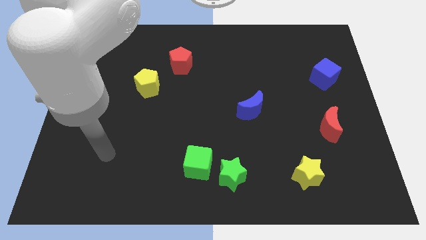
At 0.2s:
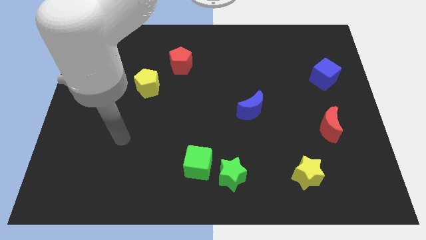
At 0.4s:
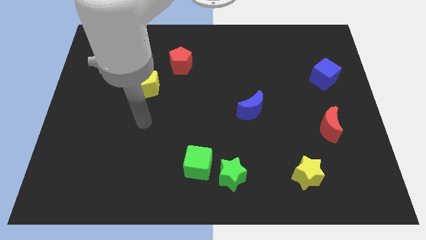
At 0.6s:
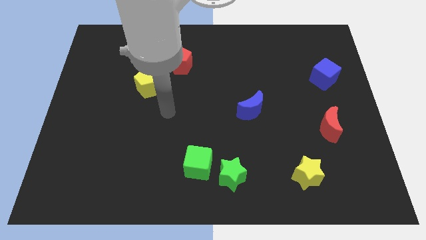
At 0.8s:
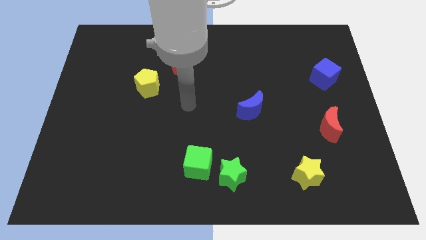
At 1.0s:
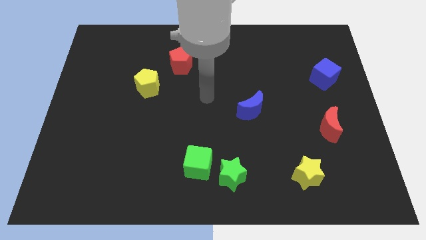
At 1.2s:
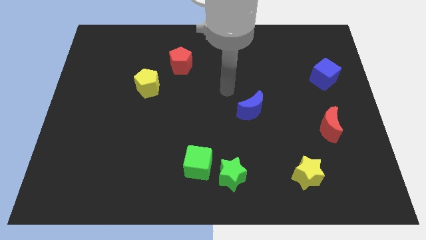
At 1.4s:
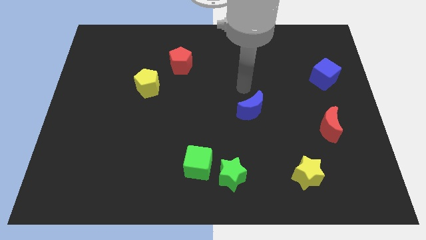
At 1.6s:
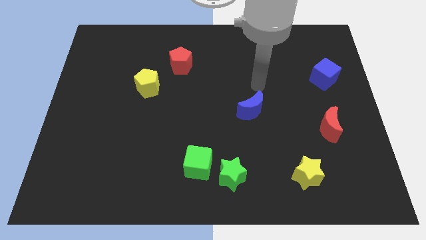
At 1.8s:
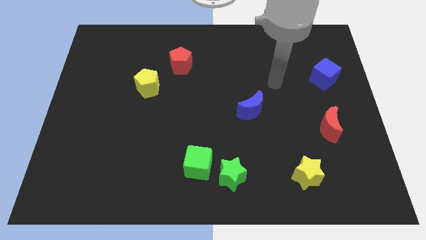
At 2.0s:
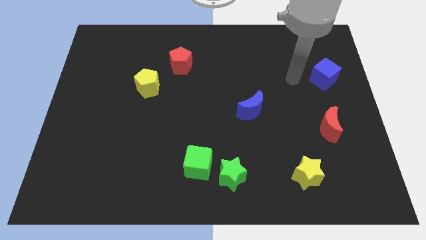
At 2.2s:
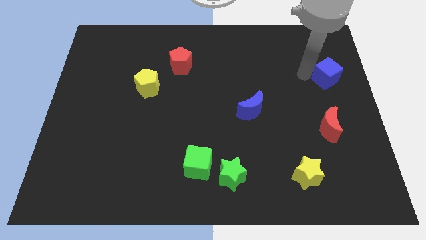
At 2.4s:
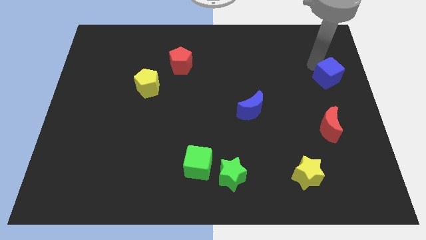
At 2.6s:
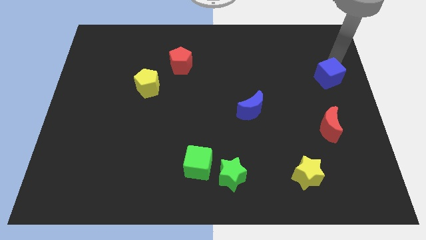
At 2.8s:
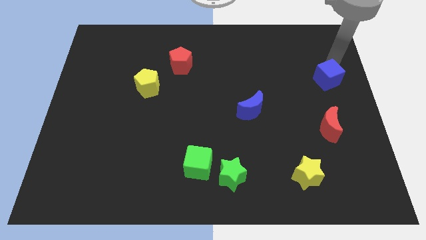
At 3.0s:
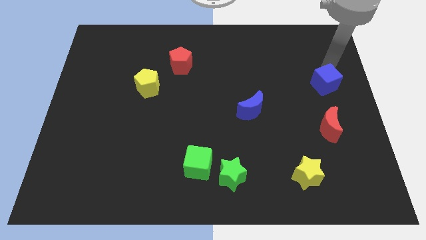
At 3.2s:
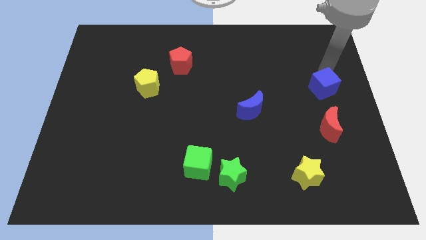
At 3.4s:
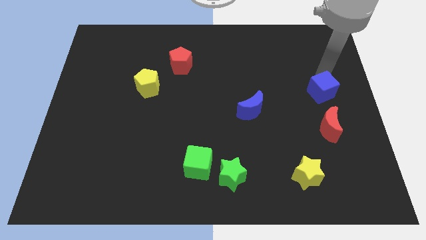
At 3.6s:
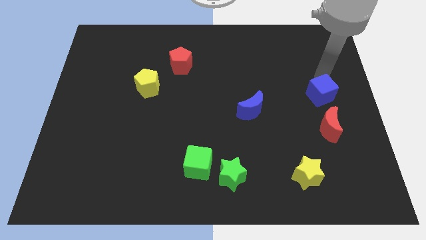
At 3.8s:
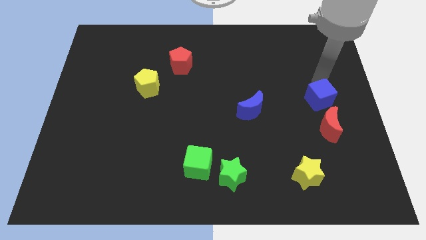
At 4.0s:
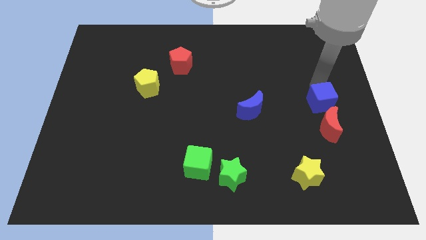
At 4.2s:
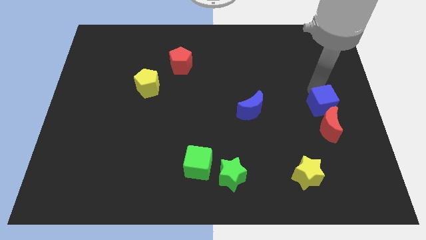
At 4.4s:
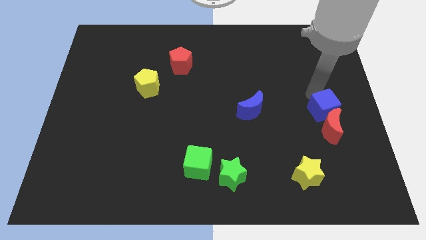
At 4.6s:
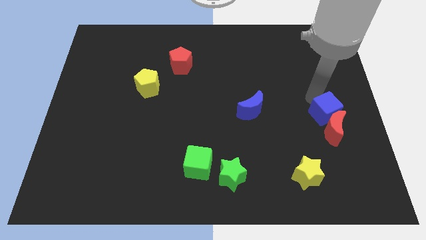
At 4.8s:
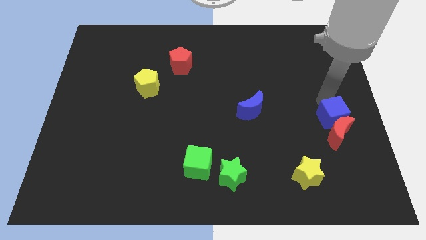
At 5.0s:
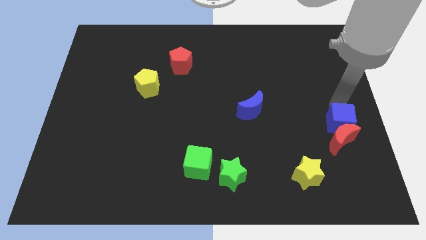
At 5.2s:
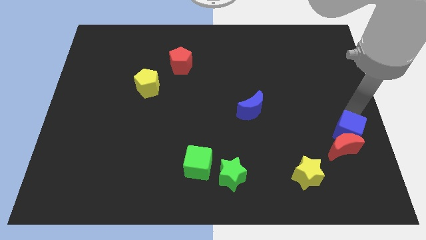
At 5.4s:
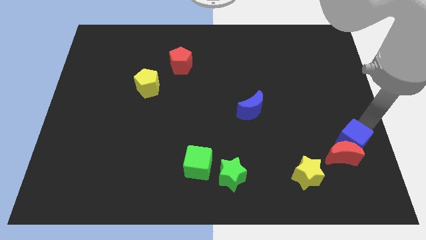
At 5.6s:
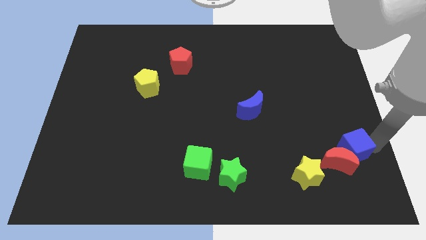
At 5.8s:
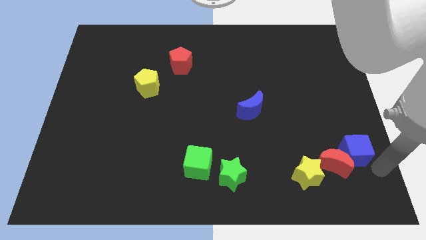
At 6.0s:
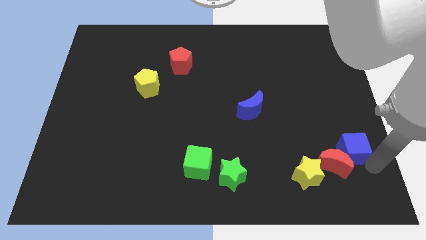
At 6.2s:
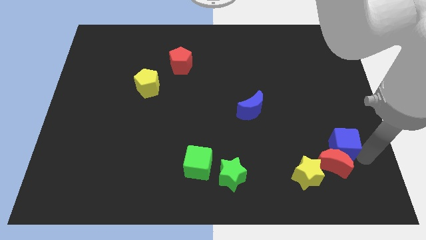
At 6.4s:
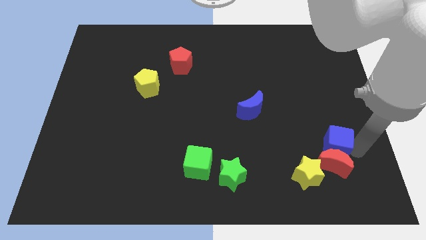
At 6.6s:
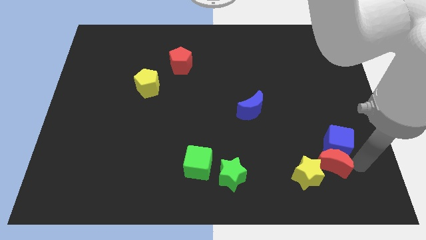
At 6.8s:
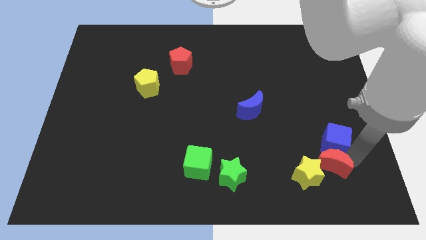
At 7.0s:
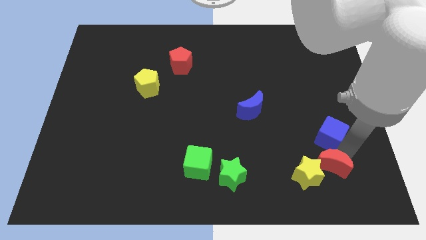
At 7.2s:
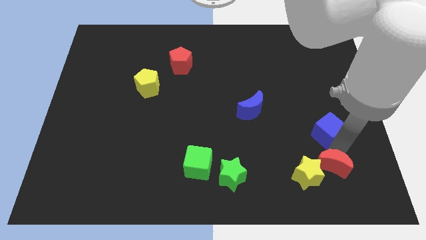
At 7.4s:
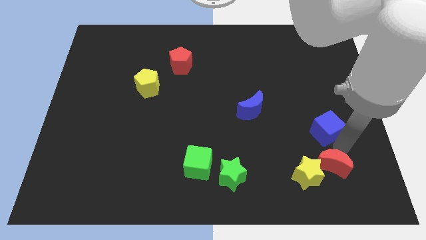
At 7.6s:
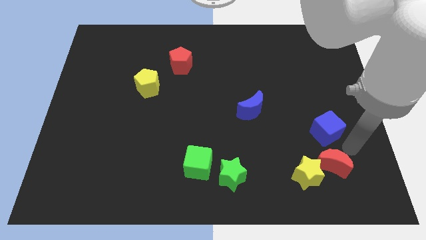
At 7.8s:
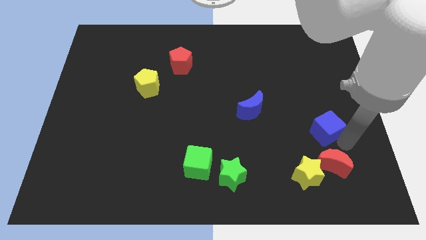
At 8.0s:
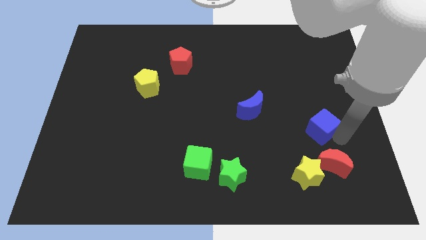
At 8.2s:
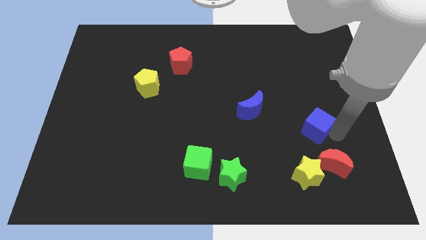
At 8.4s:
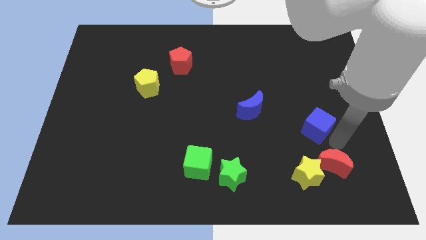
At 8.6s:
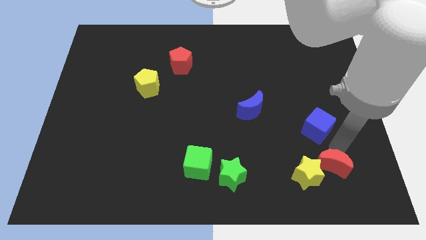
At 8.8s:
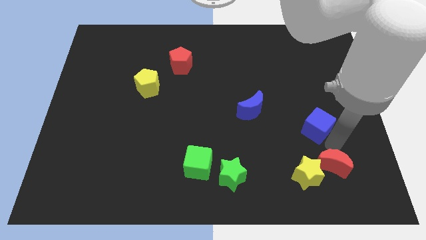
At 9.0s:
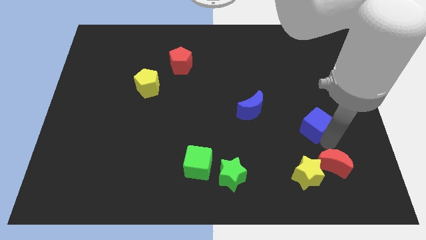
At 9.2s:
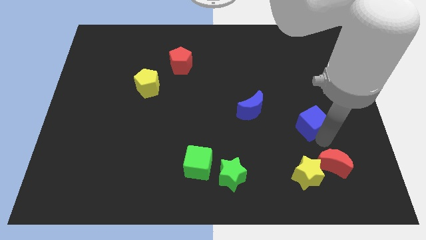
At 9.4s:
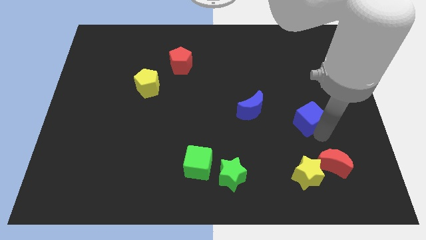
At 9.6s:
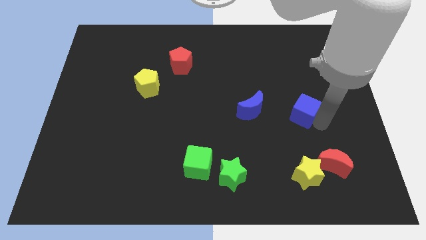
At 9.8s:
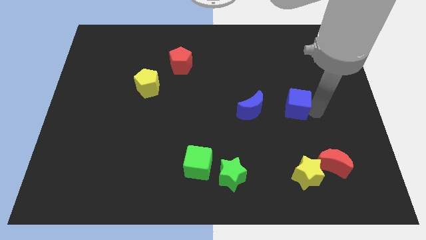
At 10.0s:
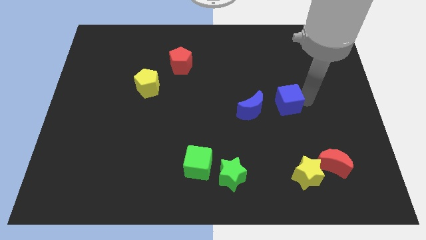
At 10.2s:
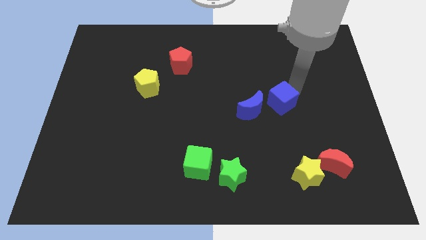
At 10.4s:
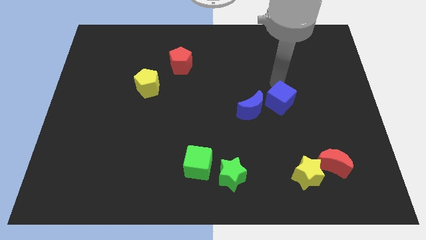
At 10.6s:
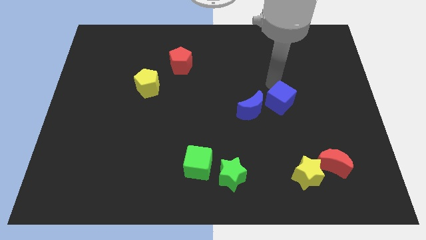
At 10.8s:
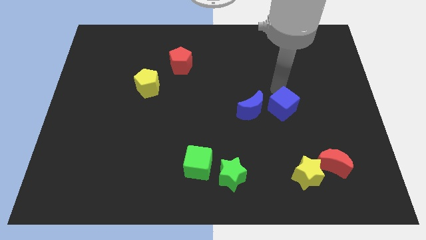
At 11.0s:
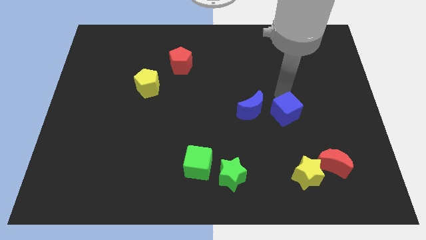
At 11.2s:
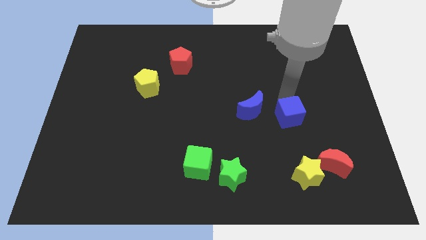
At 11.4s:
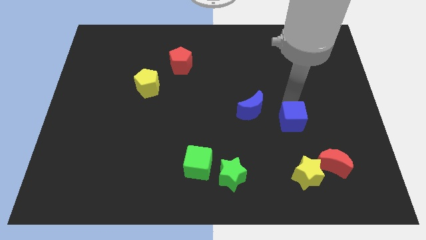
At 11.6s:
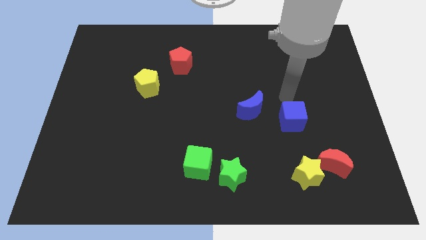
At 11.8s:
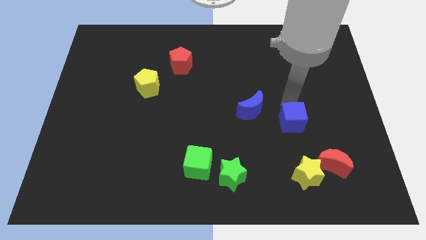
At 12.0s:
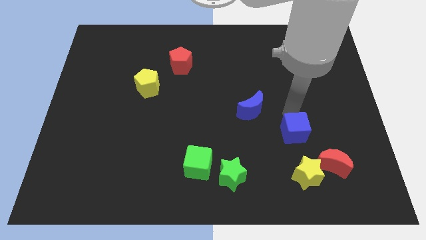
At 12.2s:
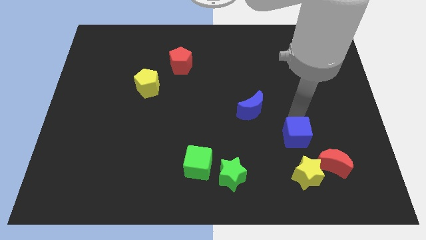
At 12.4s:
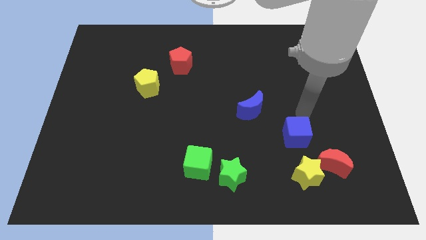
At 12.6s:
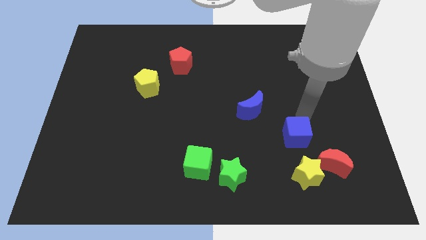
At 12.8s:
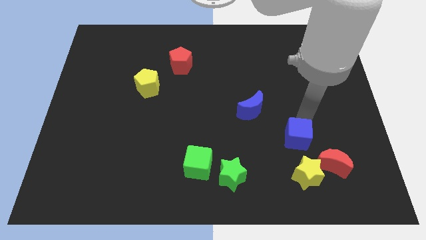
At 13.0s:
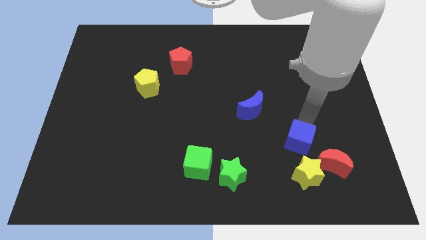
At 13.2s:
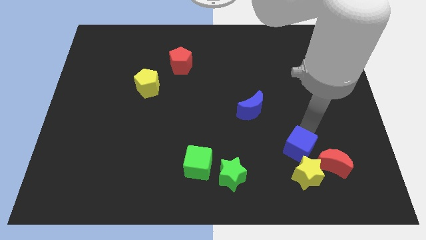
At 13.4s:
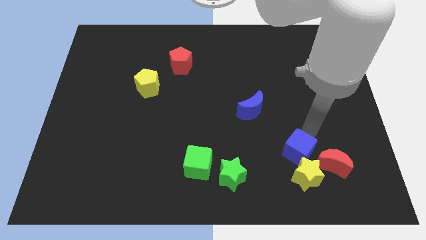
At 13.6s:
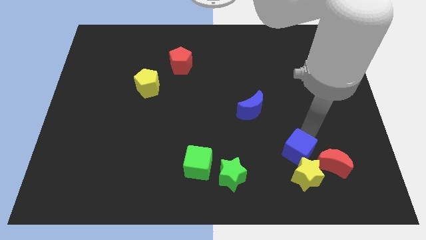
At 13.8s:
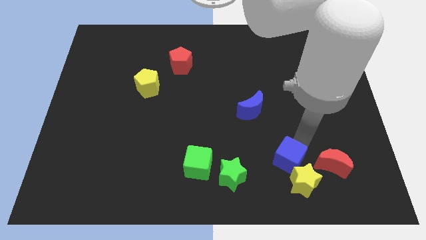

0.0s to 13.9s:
slide the blue cube to the right of the green star
